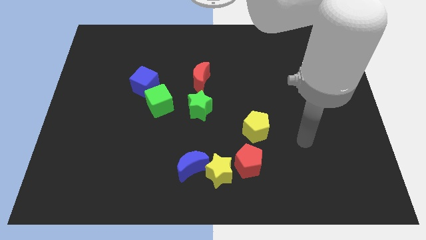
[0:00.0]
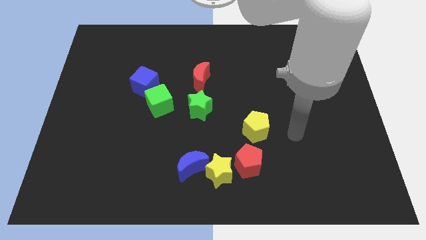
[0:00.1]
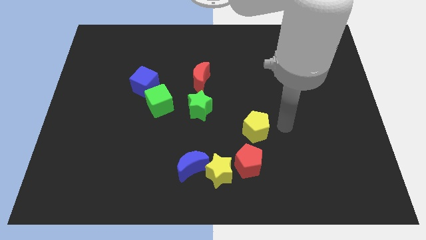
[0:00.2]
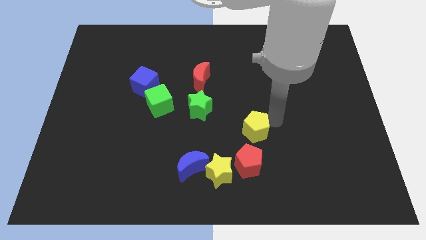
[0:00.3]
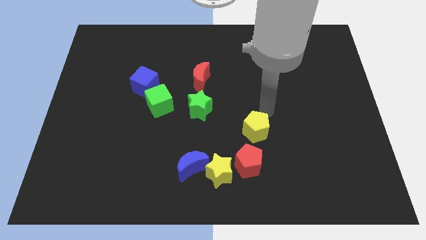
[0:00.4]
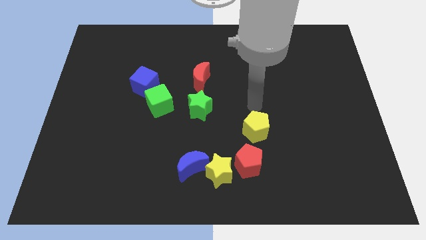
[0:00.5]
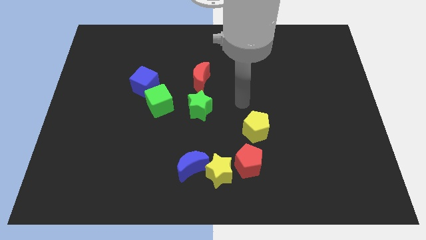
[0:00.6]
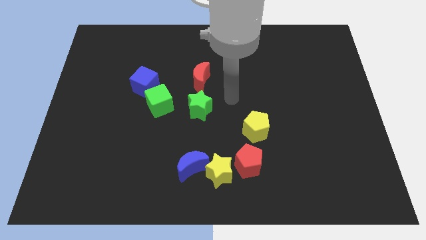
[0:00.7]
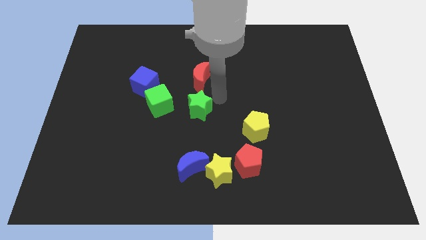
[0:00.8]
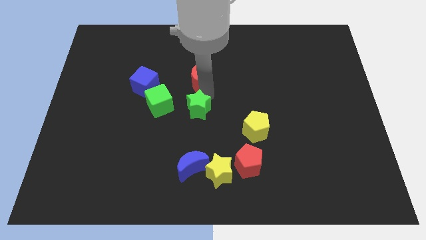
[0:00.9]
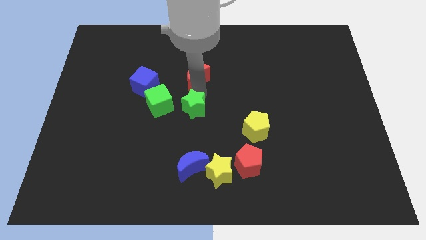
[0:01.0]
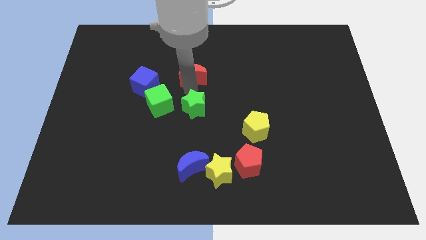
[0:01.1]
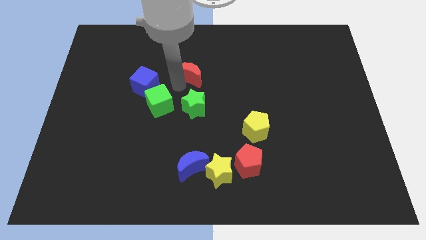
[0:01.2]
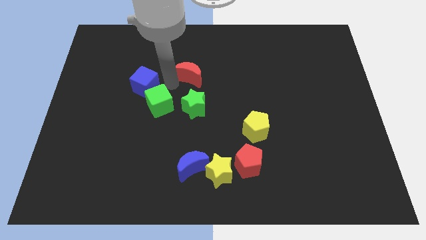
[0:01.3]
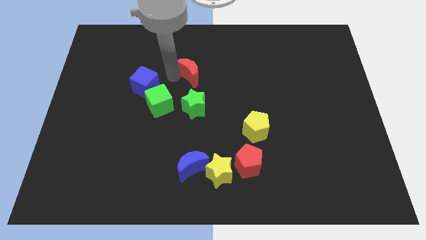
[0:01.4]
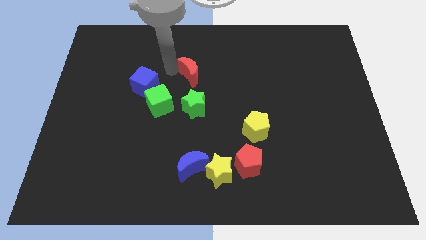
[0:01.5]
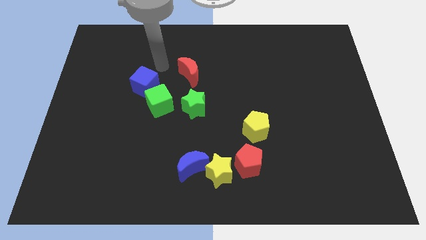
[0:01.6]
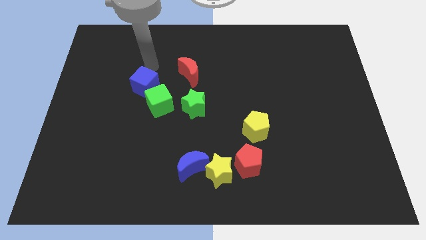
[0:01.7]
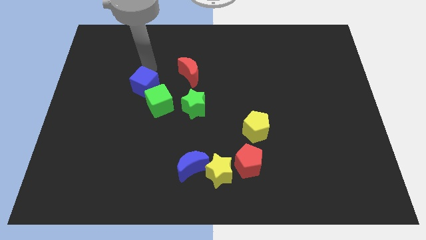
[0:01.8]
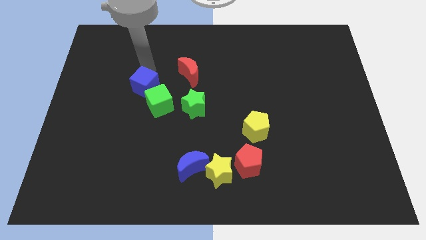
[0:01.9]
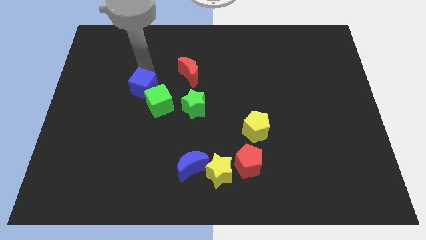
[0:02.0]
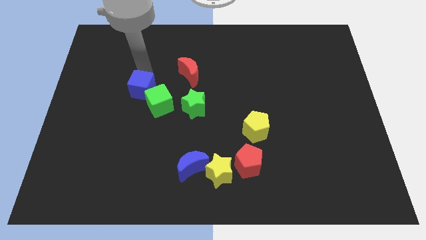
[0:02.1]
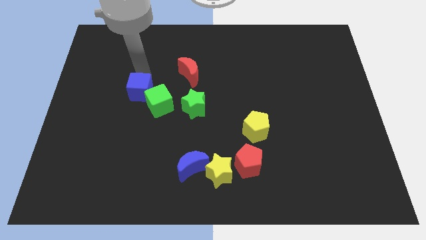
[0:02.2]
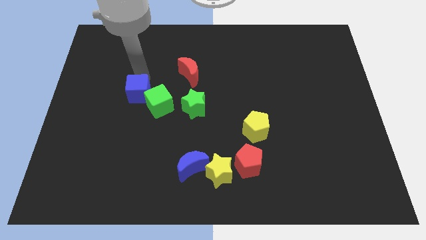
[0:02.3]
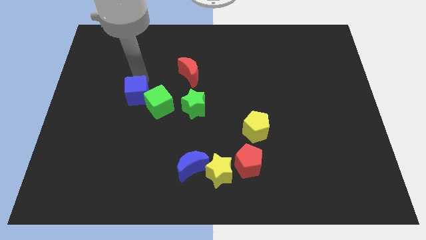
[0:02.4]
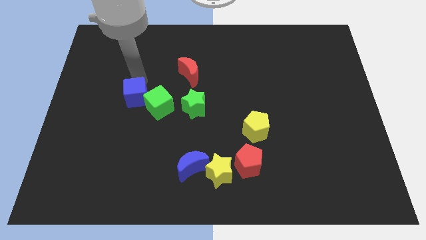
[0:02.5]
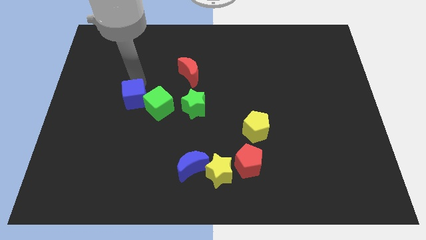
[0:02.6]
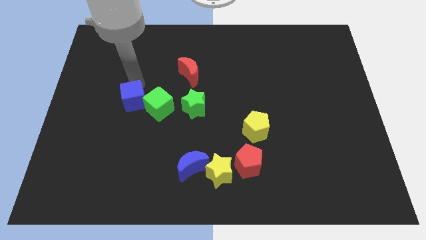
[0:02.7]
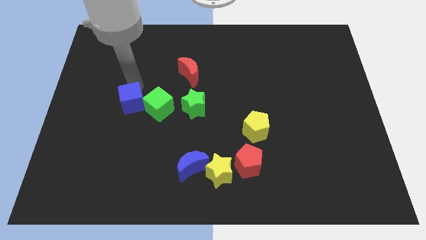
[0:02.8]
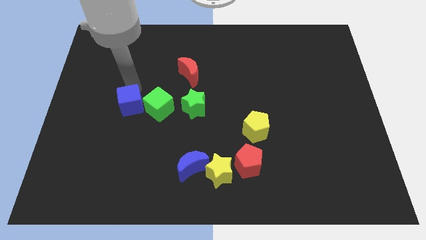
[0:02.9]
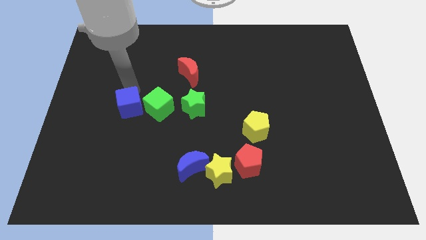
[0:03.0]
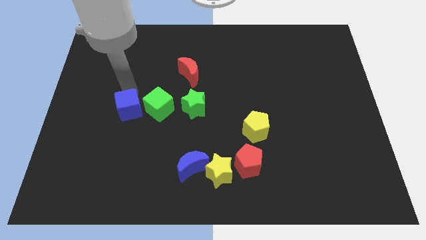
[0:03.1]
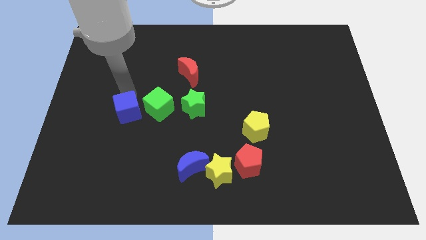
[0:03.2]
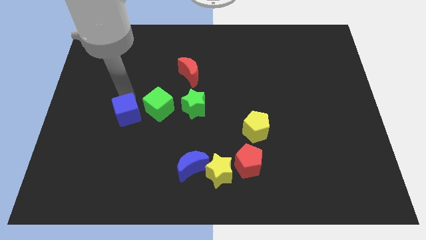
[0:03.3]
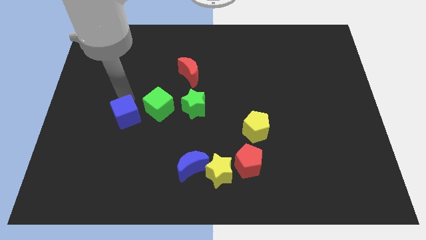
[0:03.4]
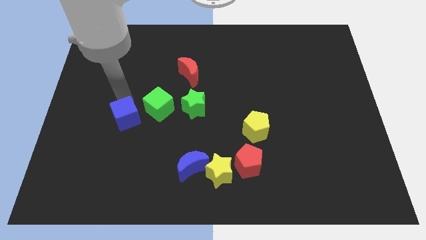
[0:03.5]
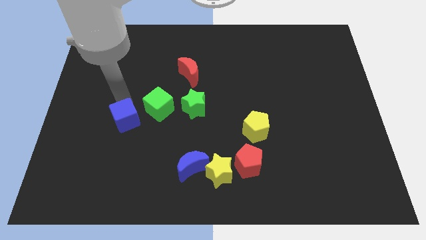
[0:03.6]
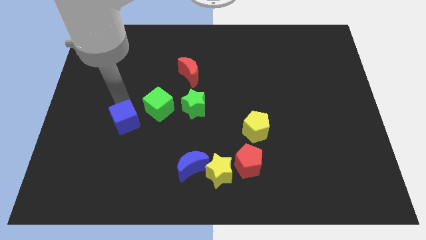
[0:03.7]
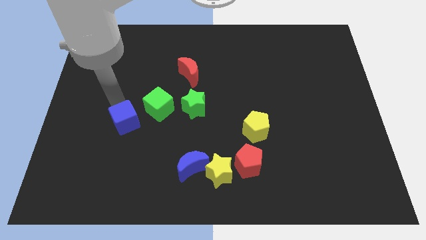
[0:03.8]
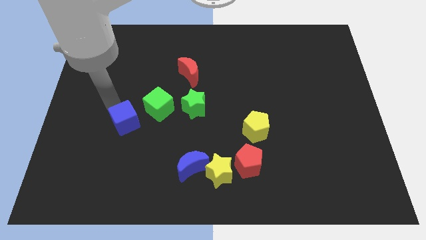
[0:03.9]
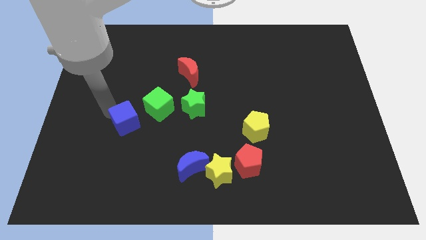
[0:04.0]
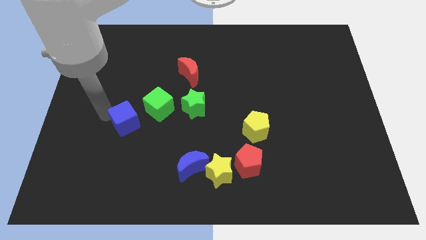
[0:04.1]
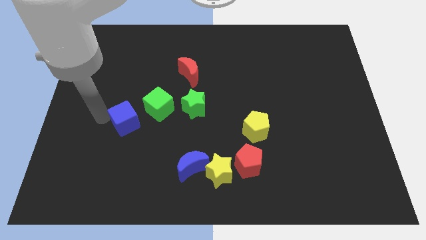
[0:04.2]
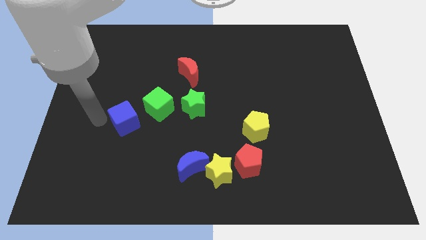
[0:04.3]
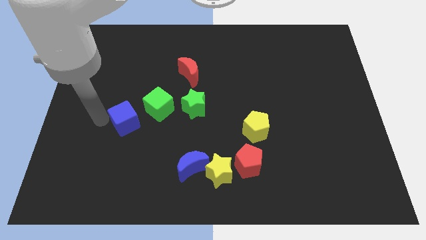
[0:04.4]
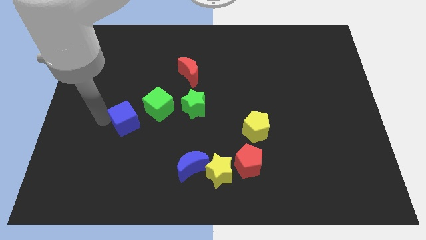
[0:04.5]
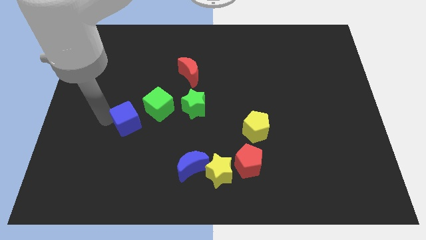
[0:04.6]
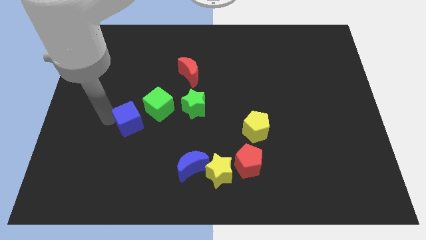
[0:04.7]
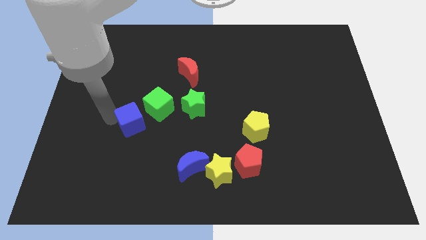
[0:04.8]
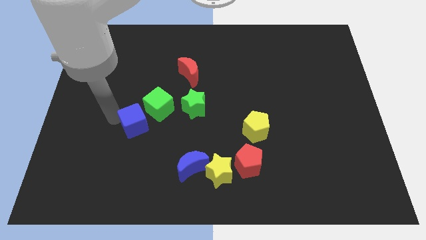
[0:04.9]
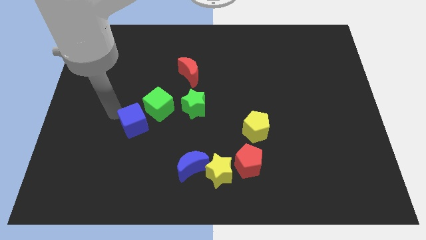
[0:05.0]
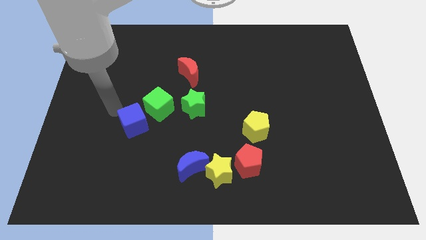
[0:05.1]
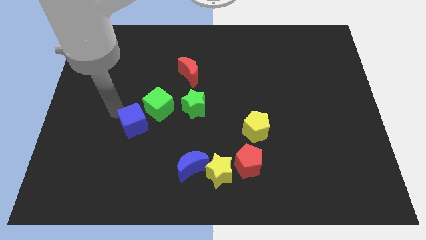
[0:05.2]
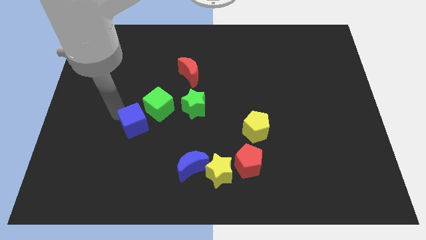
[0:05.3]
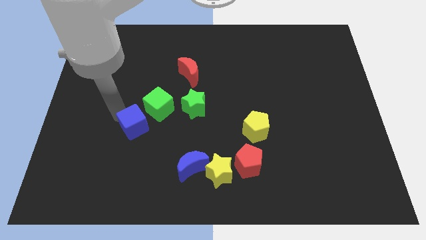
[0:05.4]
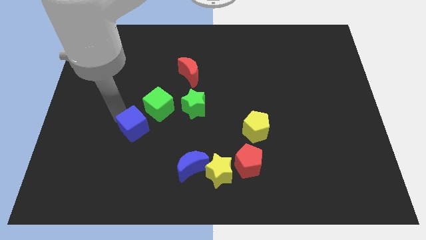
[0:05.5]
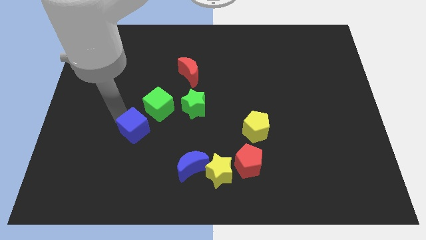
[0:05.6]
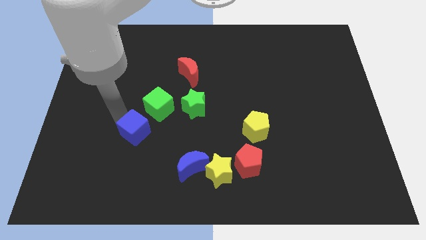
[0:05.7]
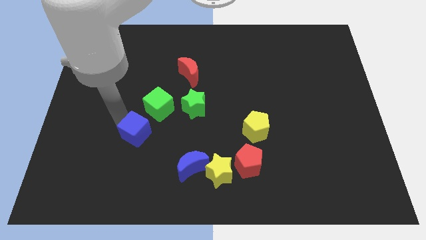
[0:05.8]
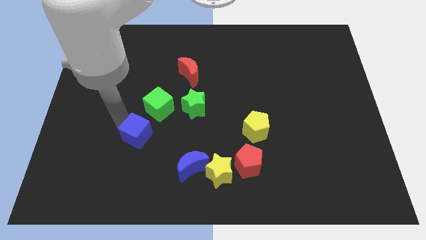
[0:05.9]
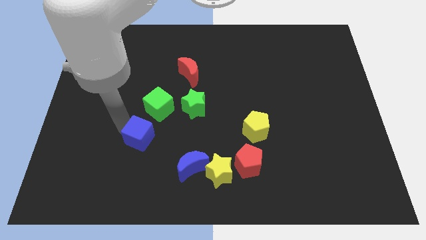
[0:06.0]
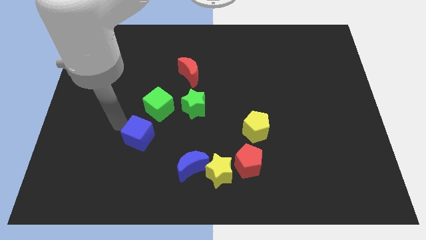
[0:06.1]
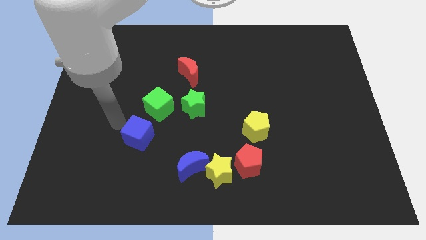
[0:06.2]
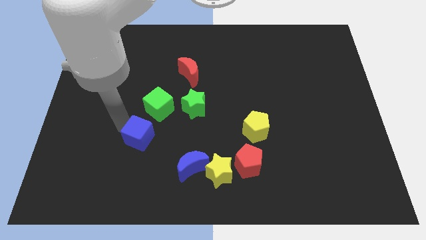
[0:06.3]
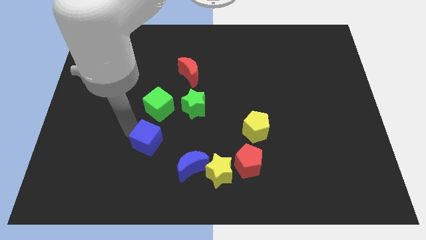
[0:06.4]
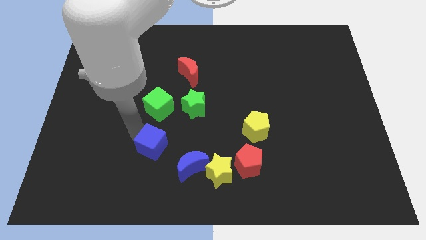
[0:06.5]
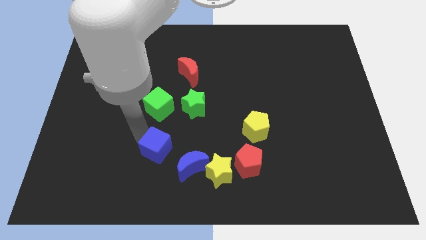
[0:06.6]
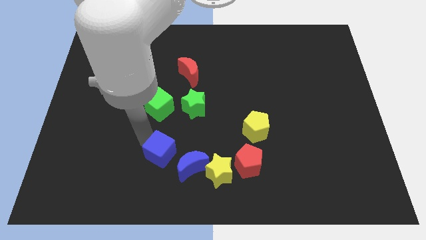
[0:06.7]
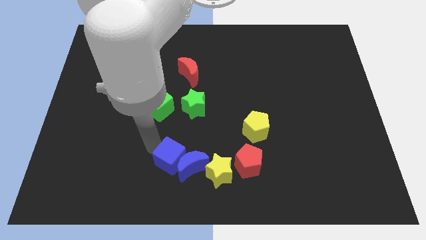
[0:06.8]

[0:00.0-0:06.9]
put the blue cube close to the blue moon
